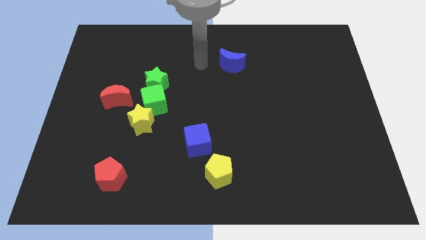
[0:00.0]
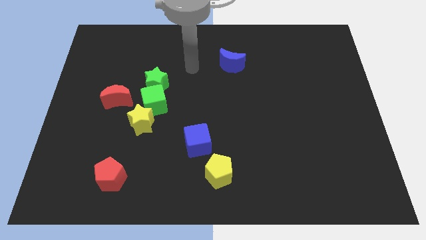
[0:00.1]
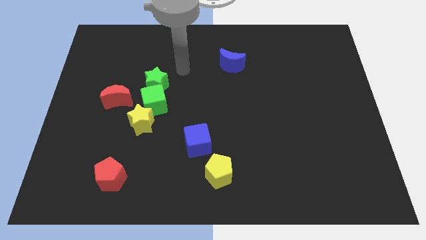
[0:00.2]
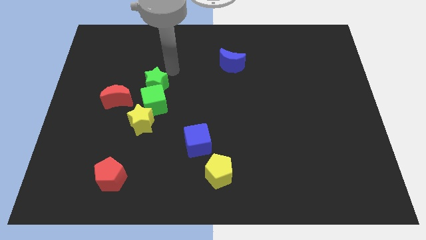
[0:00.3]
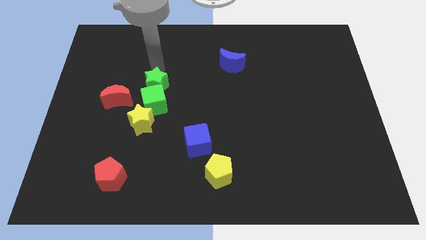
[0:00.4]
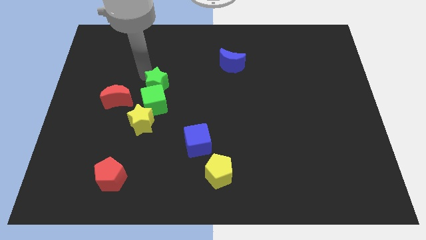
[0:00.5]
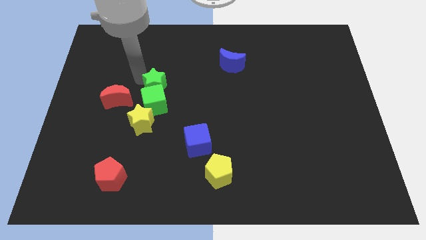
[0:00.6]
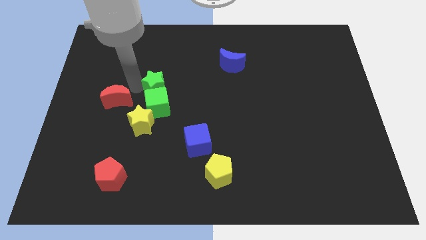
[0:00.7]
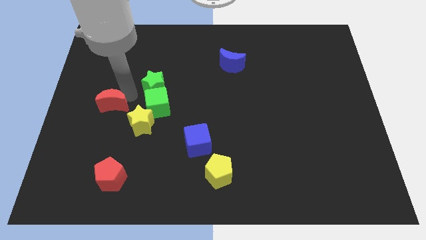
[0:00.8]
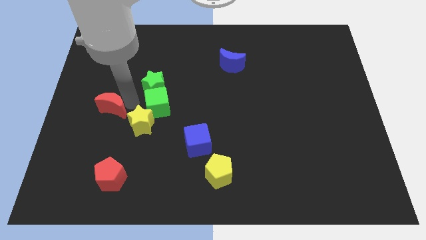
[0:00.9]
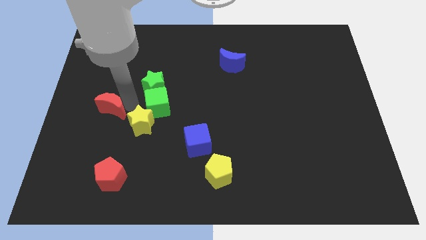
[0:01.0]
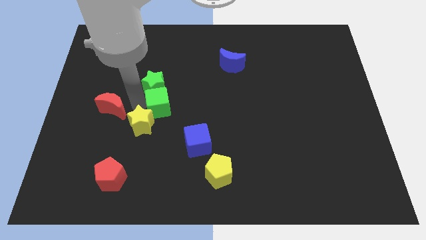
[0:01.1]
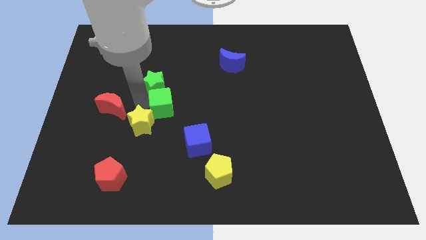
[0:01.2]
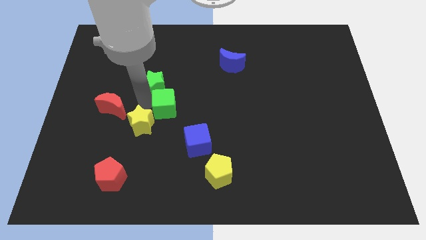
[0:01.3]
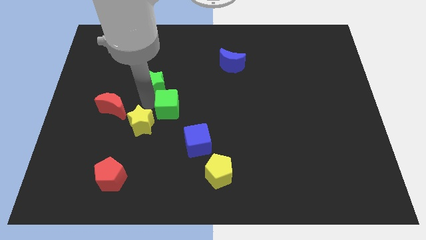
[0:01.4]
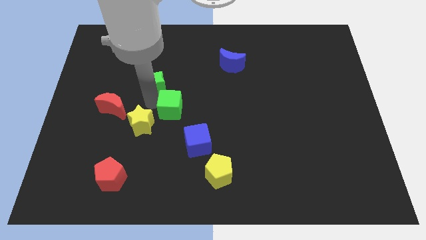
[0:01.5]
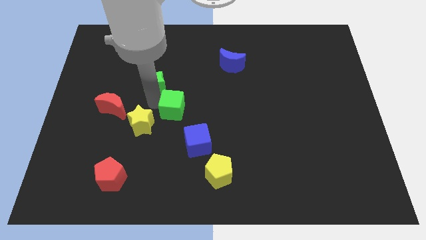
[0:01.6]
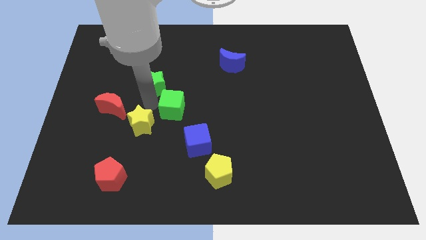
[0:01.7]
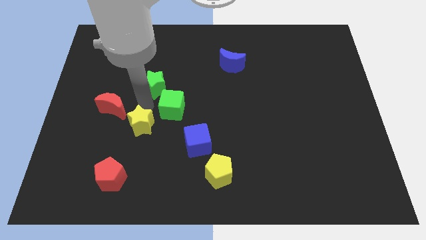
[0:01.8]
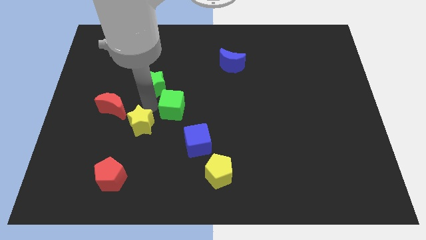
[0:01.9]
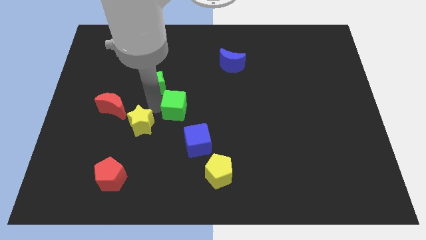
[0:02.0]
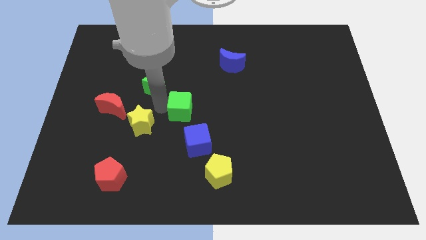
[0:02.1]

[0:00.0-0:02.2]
move the green cube away from the clump

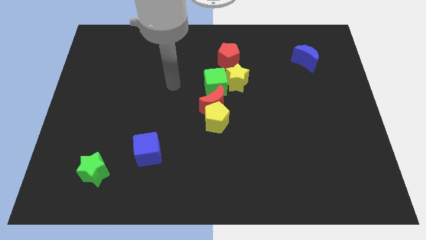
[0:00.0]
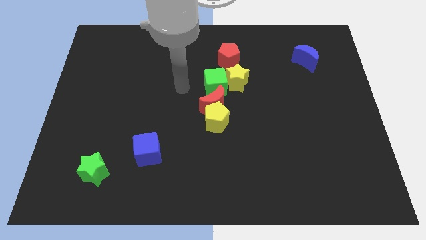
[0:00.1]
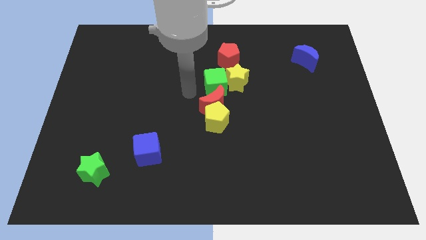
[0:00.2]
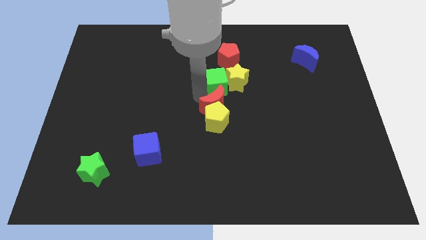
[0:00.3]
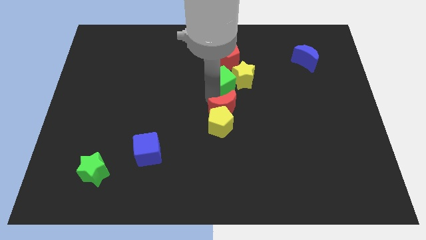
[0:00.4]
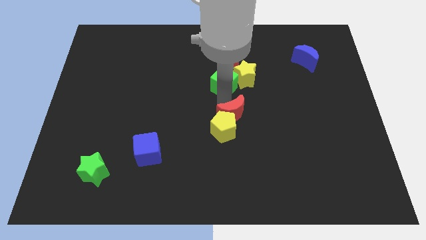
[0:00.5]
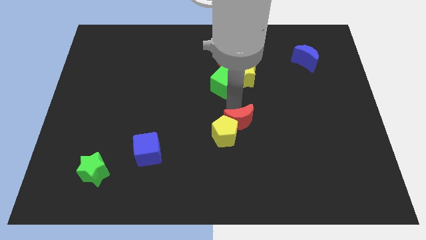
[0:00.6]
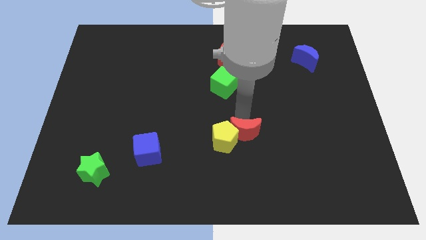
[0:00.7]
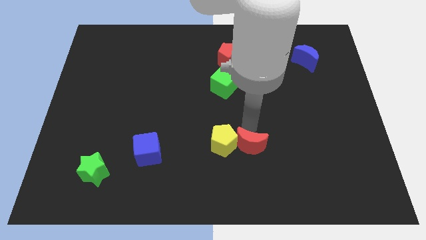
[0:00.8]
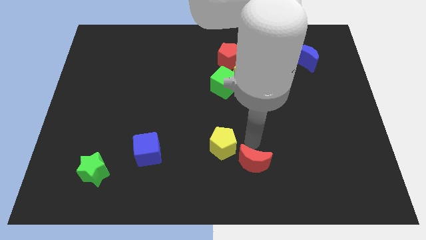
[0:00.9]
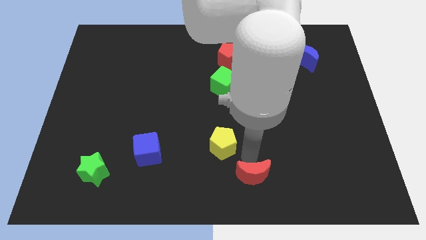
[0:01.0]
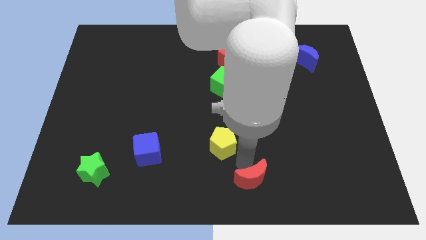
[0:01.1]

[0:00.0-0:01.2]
separate the yellow pentagon from the red moon

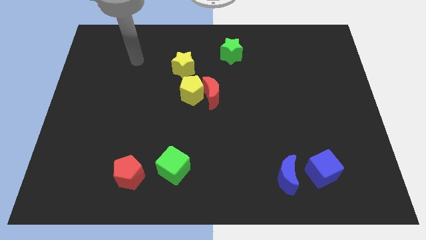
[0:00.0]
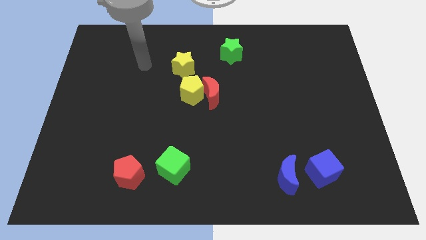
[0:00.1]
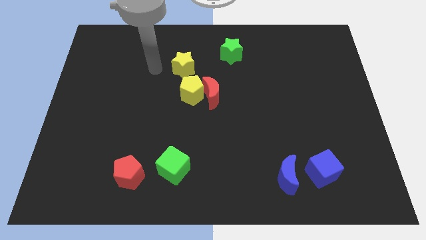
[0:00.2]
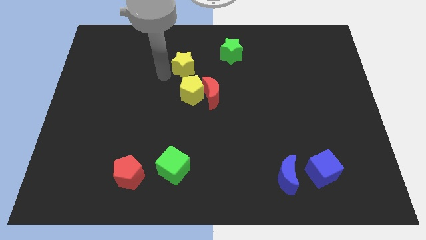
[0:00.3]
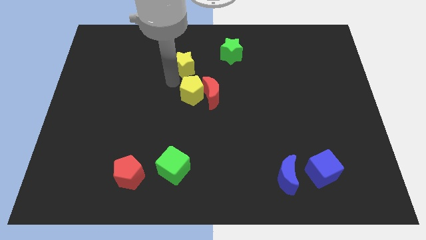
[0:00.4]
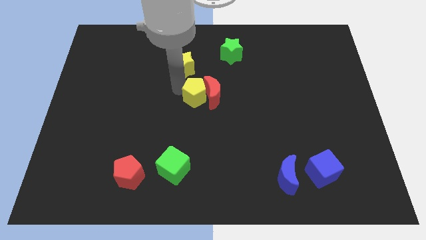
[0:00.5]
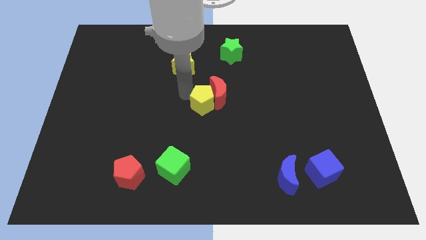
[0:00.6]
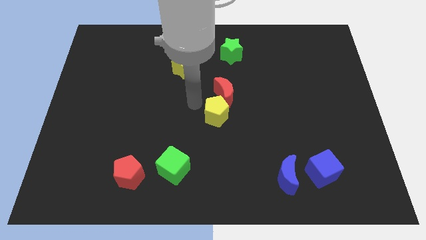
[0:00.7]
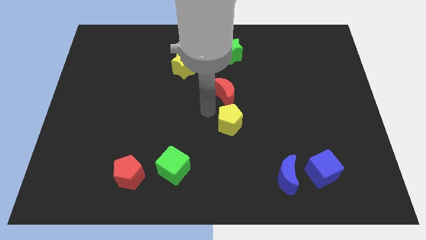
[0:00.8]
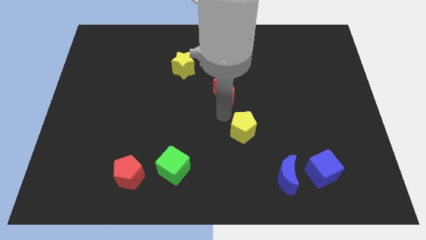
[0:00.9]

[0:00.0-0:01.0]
separate the red moon from the yellow pentagon

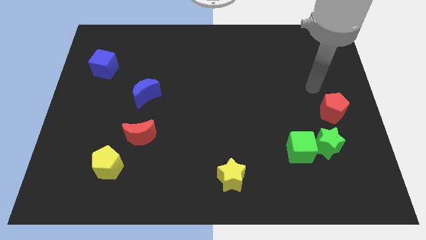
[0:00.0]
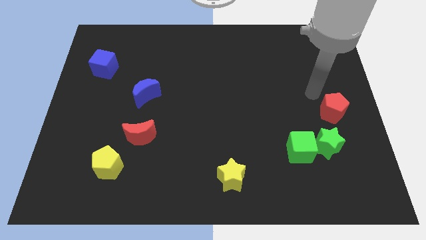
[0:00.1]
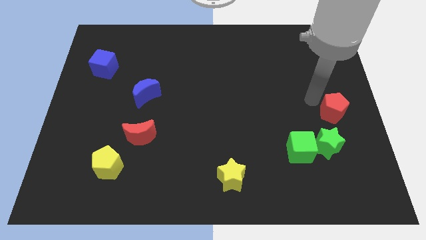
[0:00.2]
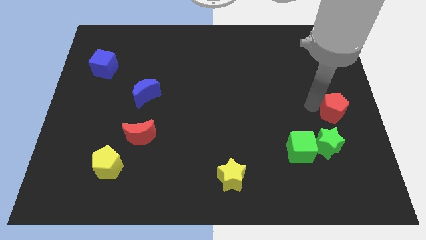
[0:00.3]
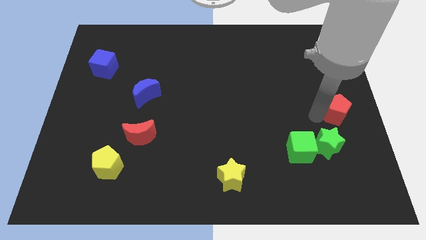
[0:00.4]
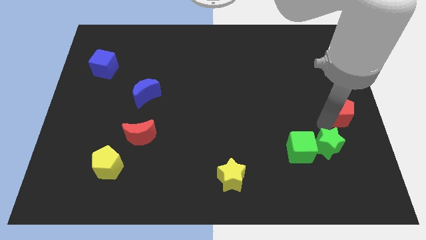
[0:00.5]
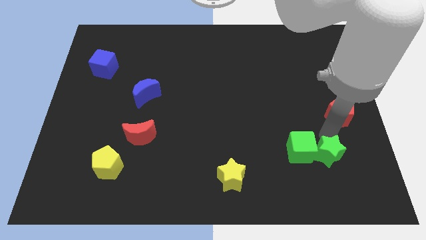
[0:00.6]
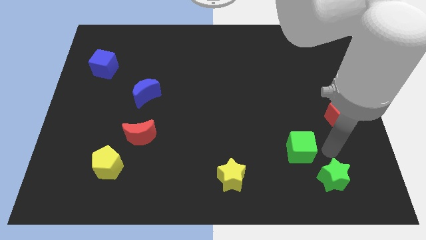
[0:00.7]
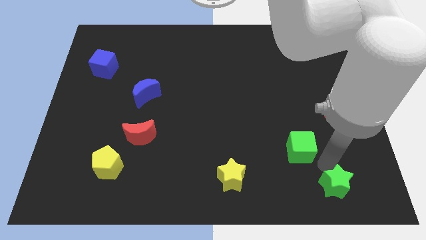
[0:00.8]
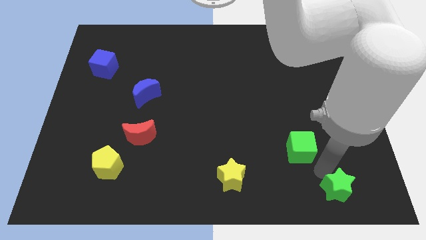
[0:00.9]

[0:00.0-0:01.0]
pull the green cube apart from the green star

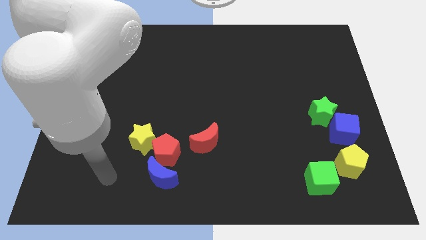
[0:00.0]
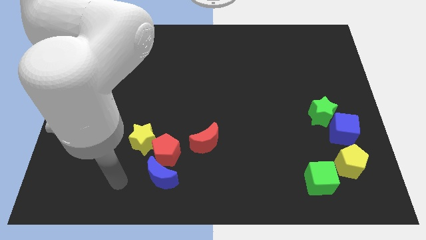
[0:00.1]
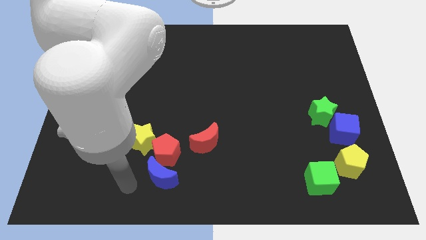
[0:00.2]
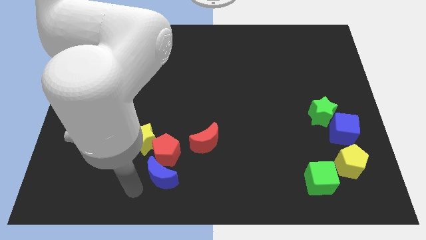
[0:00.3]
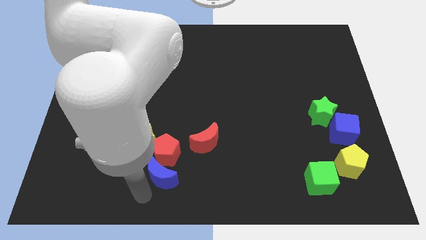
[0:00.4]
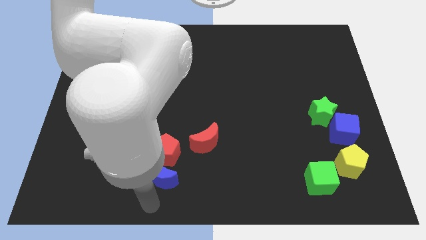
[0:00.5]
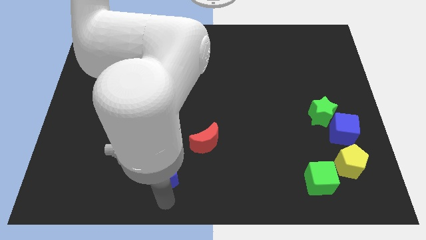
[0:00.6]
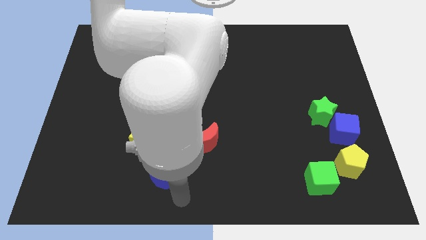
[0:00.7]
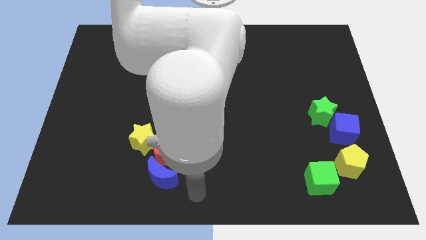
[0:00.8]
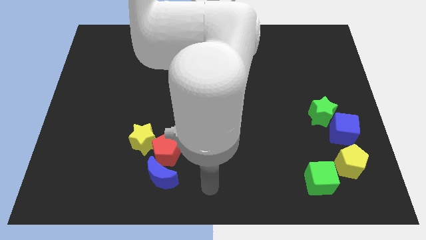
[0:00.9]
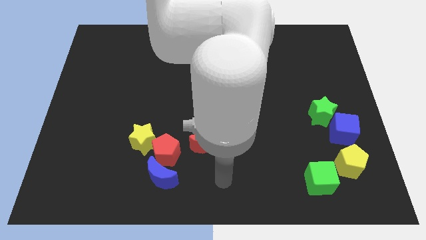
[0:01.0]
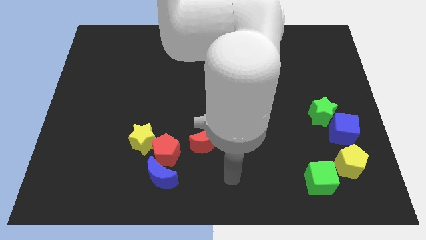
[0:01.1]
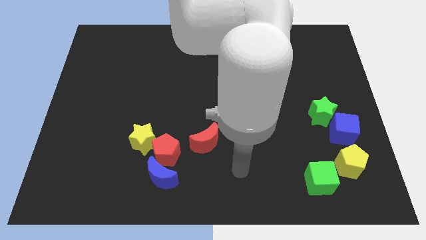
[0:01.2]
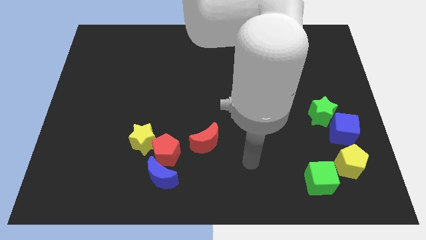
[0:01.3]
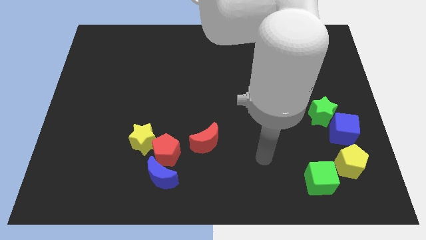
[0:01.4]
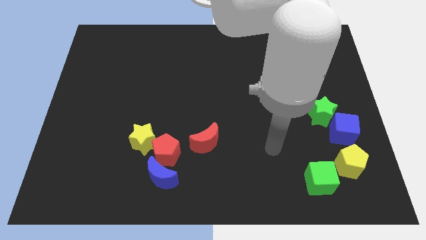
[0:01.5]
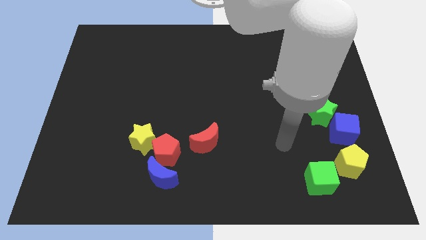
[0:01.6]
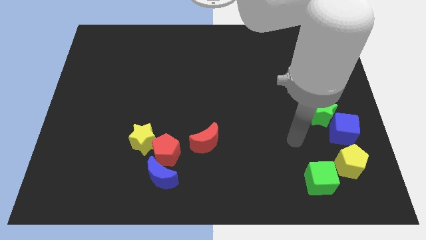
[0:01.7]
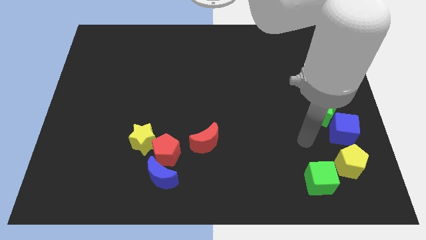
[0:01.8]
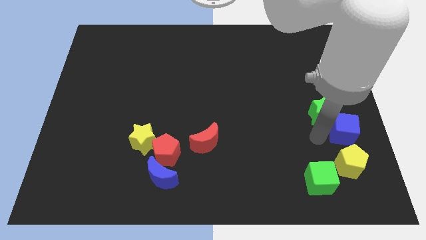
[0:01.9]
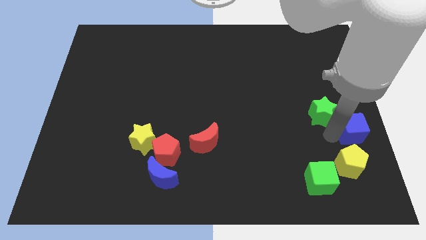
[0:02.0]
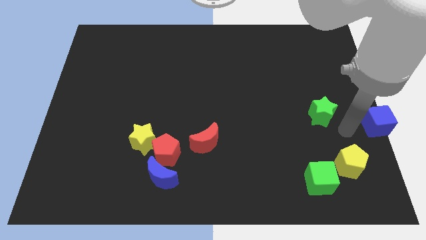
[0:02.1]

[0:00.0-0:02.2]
pull the green star apart from the blue cube

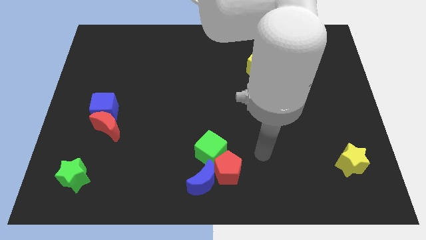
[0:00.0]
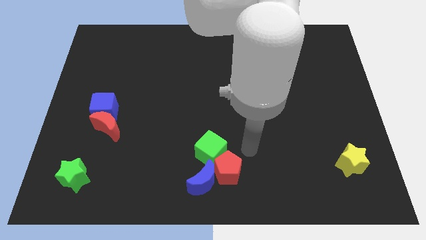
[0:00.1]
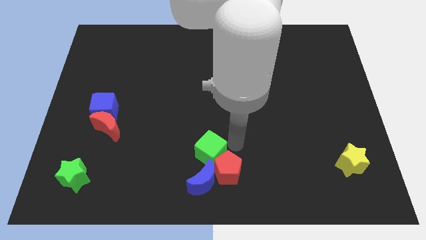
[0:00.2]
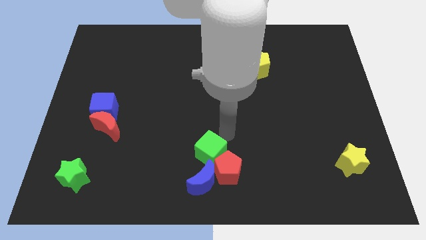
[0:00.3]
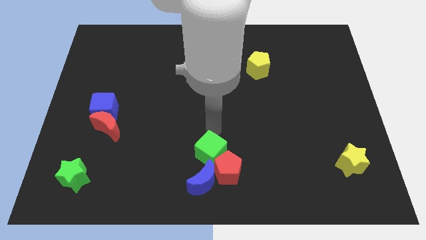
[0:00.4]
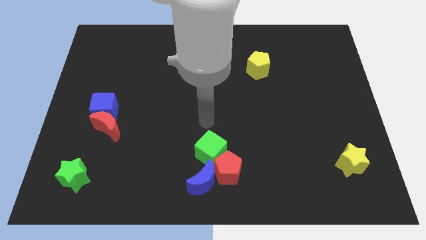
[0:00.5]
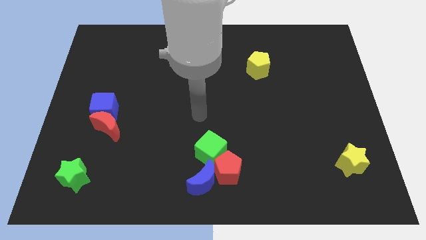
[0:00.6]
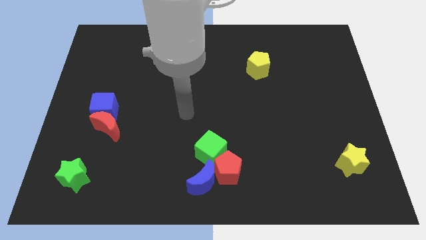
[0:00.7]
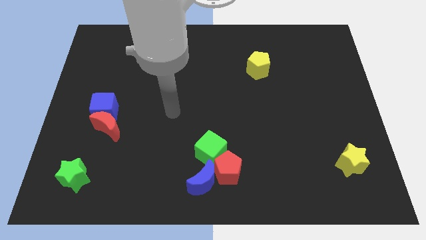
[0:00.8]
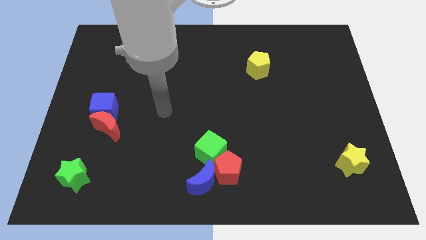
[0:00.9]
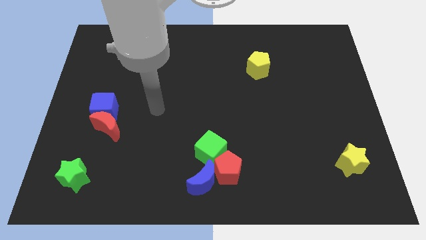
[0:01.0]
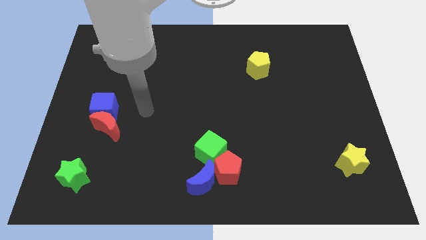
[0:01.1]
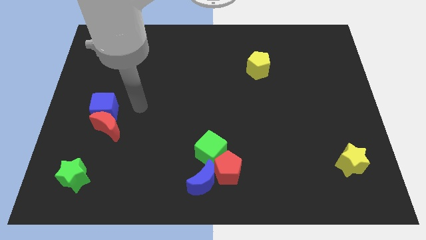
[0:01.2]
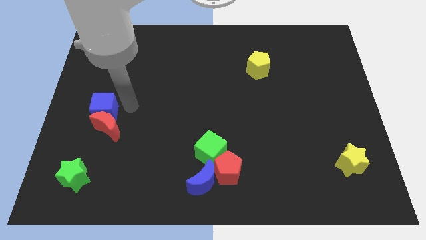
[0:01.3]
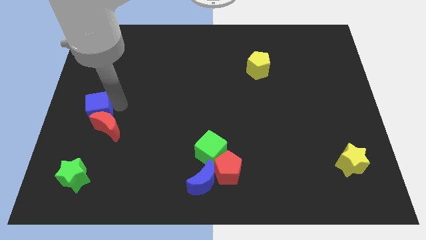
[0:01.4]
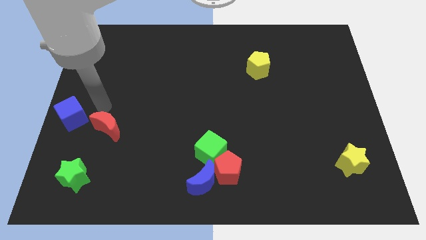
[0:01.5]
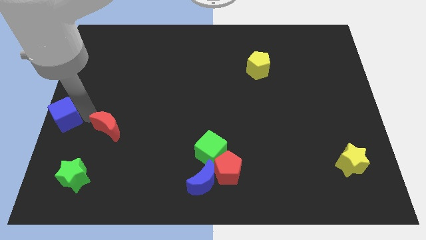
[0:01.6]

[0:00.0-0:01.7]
move the red moon away from the blue cube
